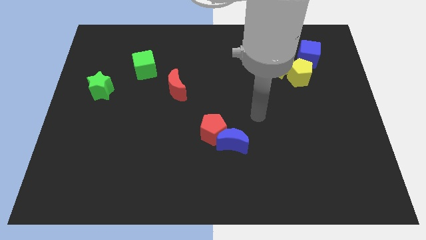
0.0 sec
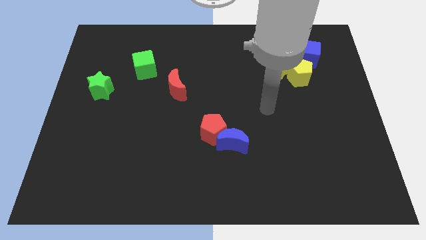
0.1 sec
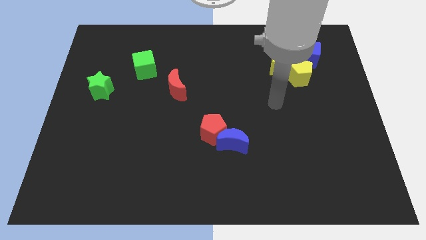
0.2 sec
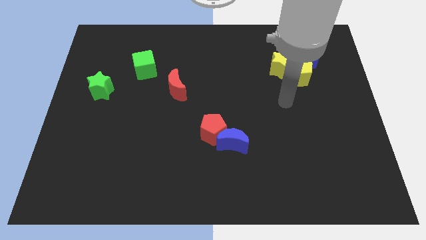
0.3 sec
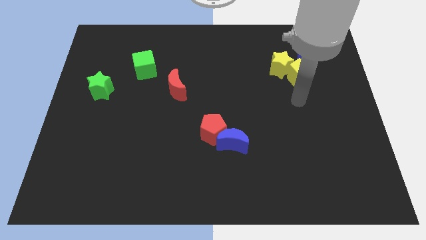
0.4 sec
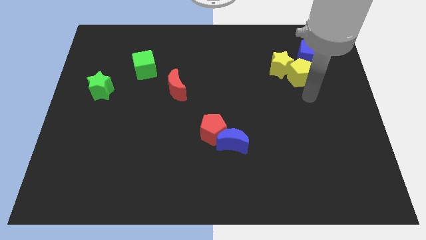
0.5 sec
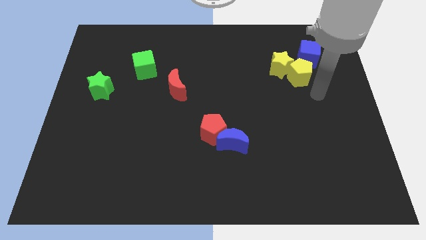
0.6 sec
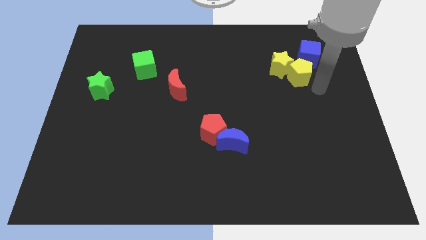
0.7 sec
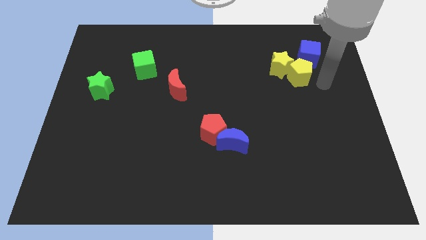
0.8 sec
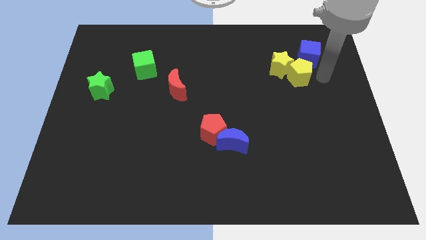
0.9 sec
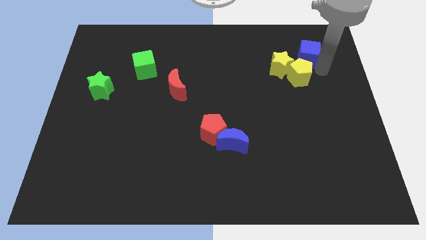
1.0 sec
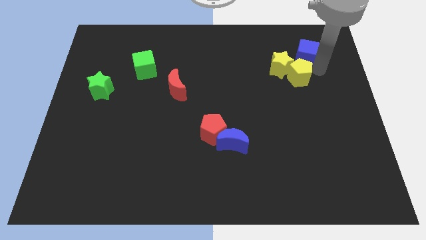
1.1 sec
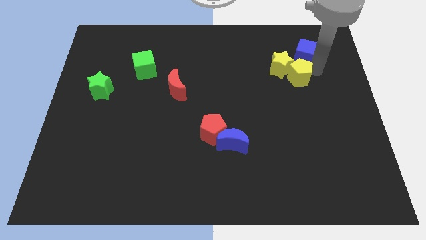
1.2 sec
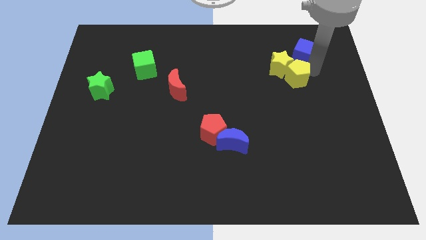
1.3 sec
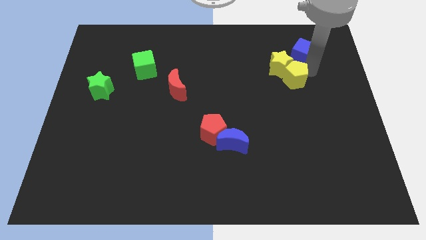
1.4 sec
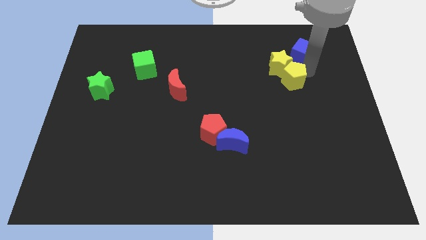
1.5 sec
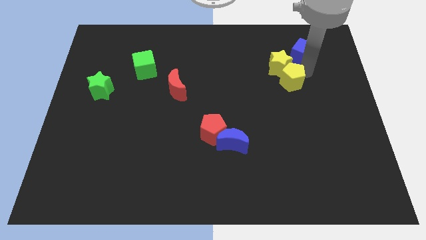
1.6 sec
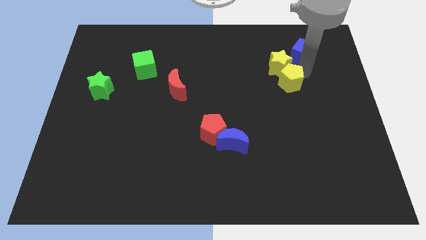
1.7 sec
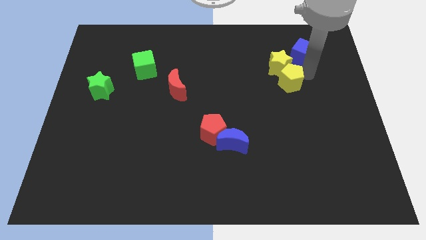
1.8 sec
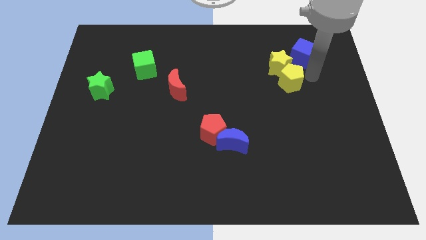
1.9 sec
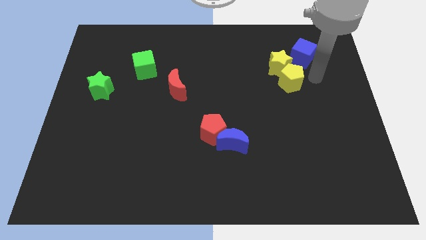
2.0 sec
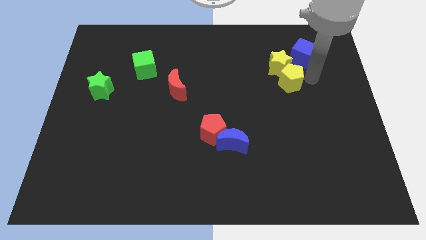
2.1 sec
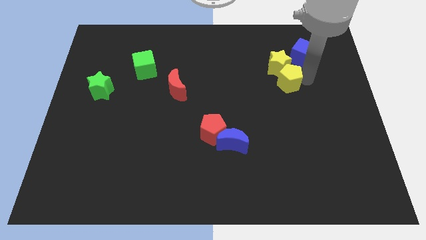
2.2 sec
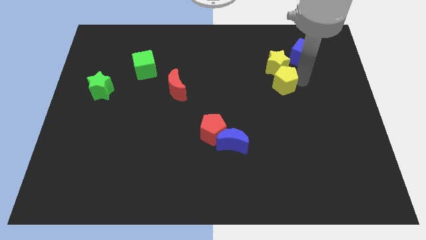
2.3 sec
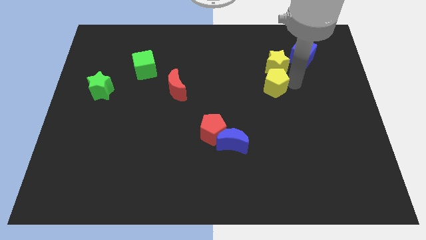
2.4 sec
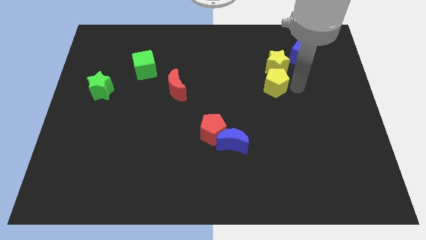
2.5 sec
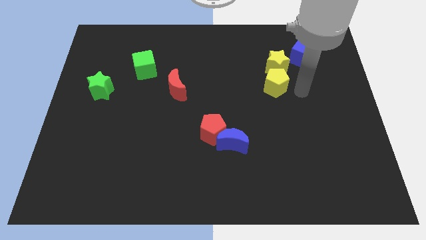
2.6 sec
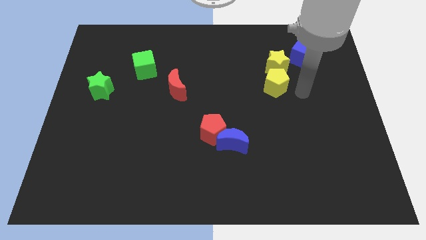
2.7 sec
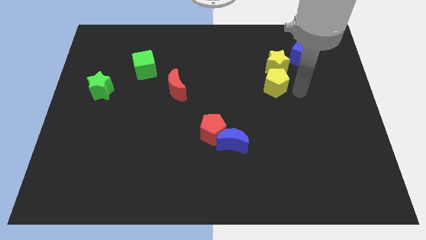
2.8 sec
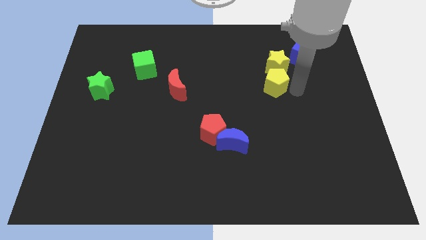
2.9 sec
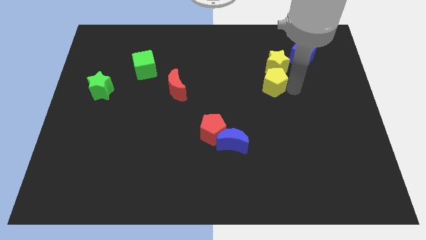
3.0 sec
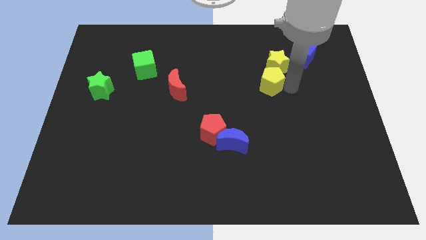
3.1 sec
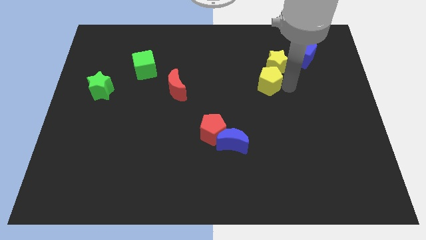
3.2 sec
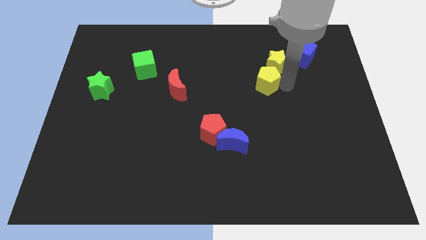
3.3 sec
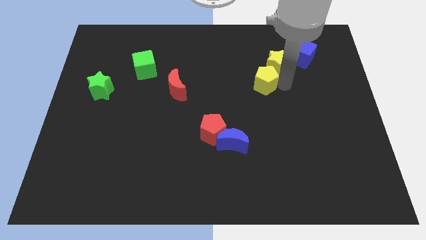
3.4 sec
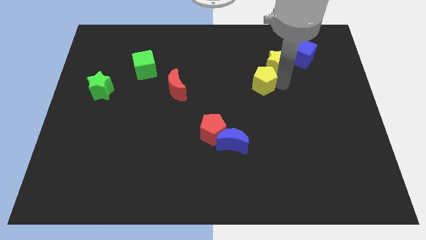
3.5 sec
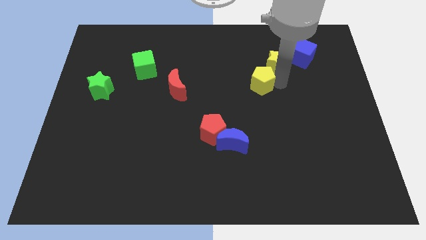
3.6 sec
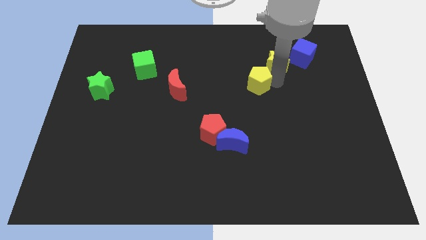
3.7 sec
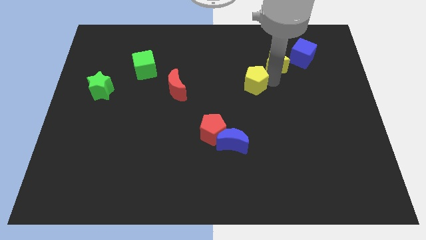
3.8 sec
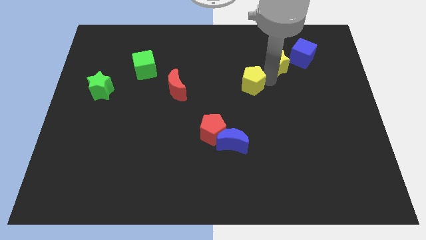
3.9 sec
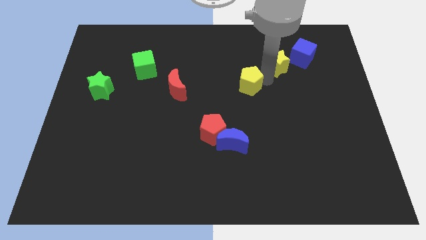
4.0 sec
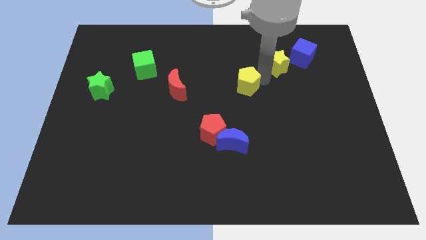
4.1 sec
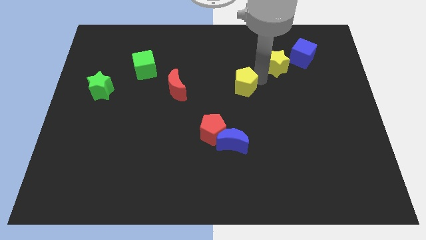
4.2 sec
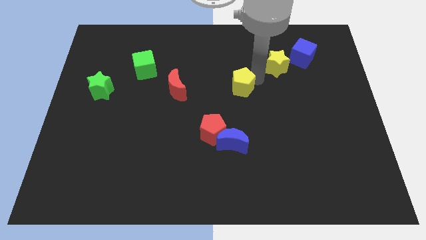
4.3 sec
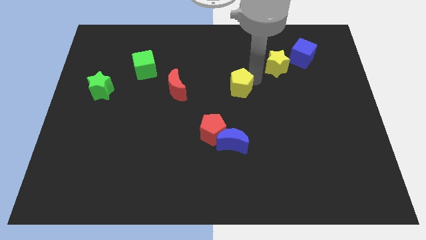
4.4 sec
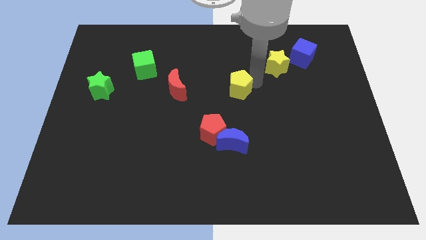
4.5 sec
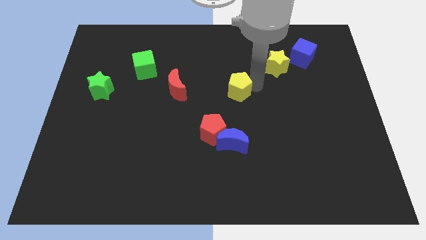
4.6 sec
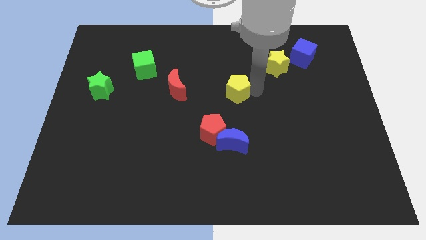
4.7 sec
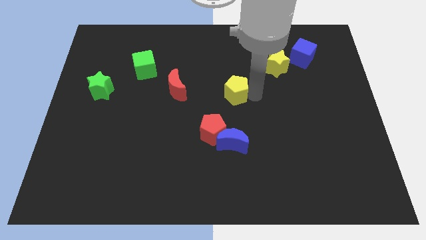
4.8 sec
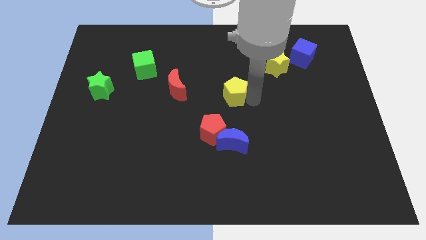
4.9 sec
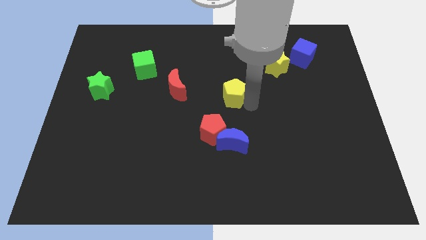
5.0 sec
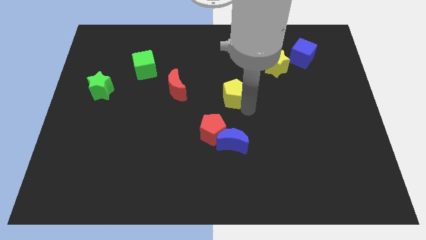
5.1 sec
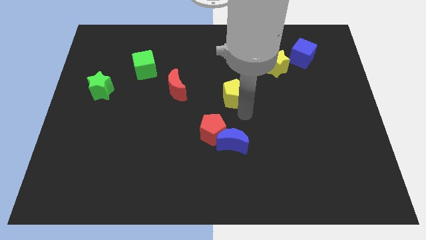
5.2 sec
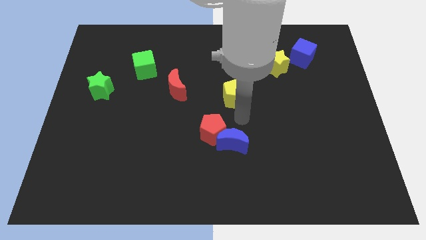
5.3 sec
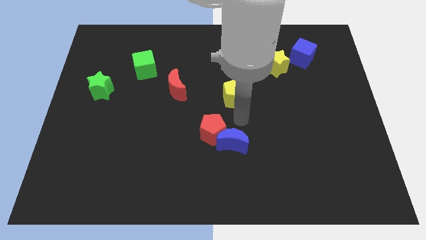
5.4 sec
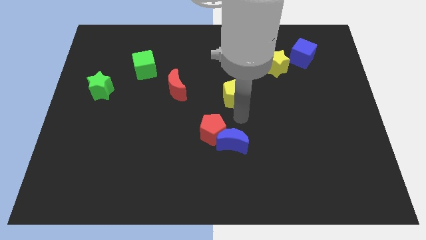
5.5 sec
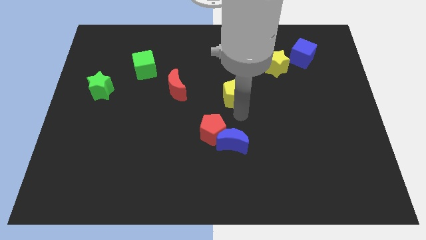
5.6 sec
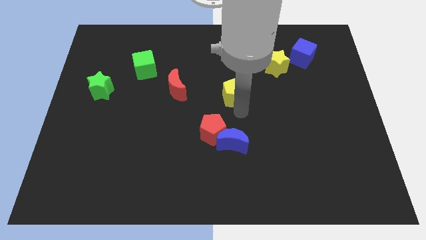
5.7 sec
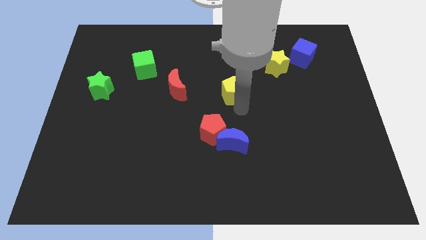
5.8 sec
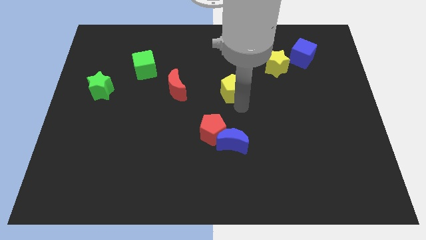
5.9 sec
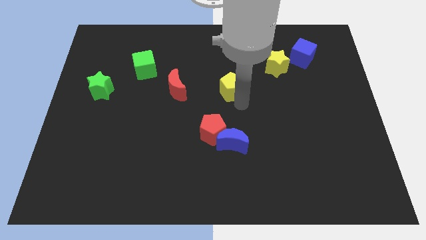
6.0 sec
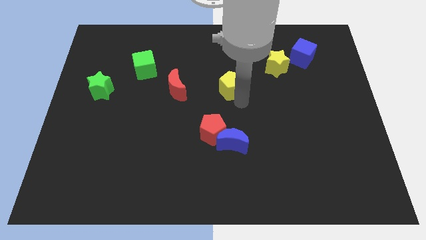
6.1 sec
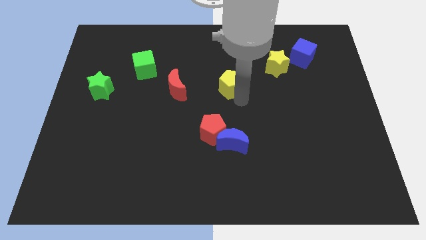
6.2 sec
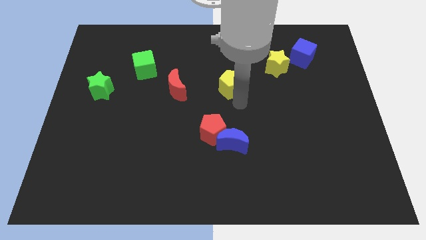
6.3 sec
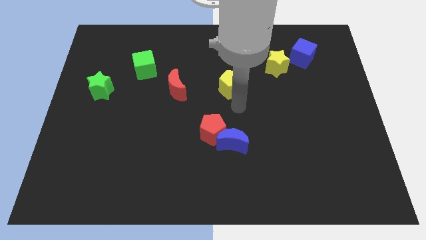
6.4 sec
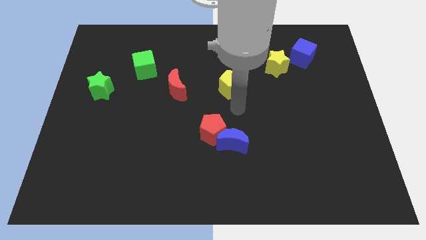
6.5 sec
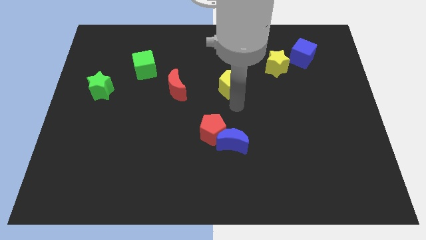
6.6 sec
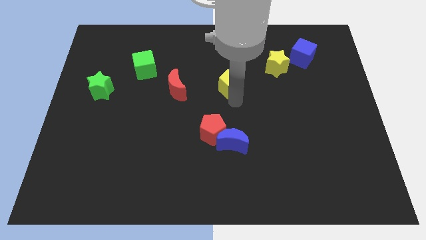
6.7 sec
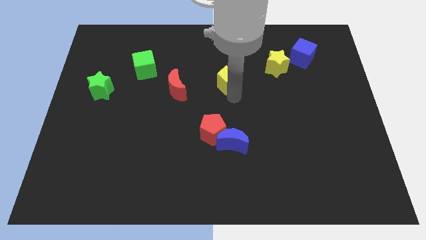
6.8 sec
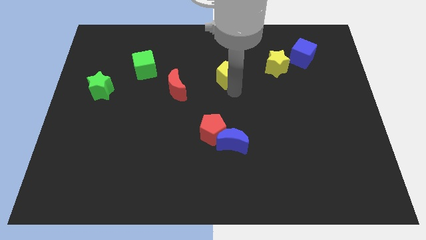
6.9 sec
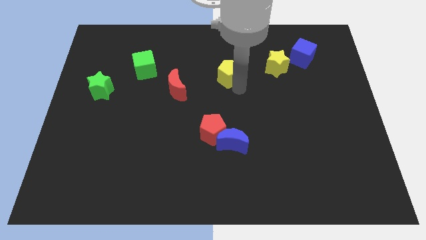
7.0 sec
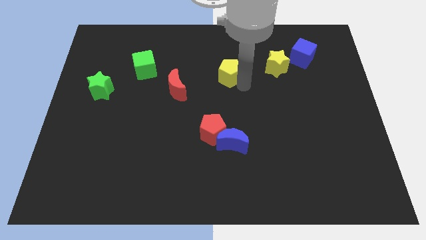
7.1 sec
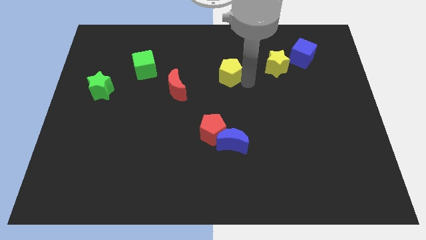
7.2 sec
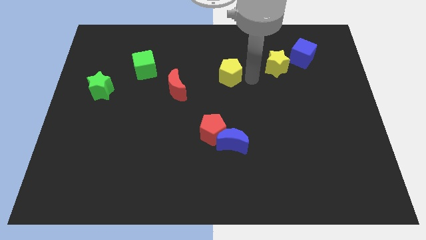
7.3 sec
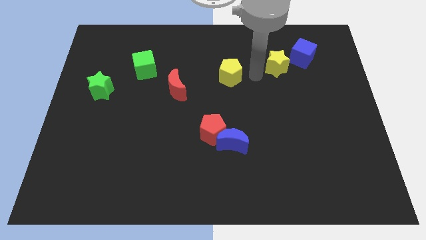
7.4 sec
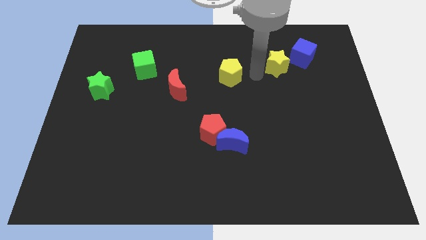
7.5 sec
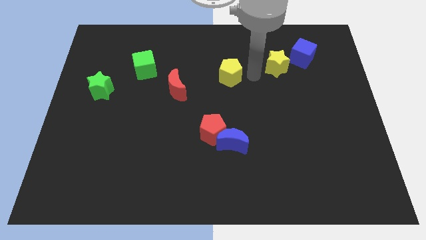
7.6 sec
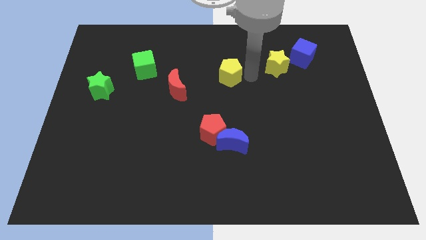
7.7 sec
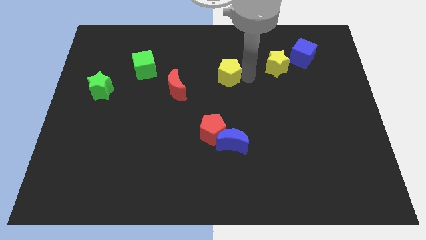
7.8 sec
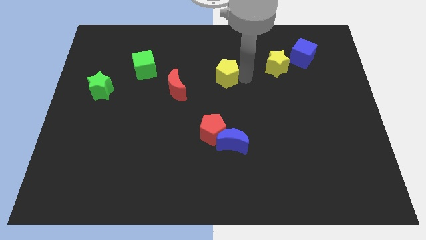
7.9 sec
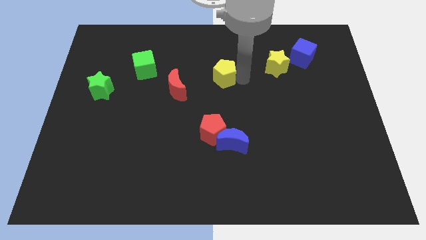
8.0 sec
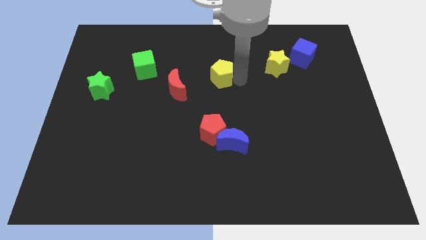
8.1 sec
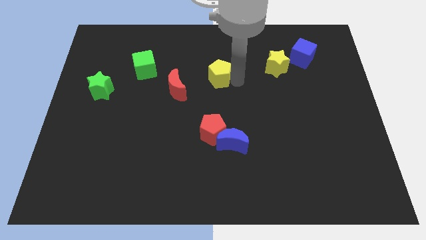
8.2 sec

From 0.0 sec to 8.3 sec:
slide the yellow pentagon left
